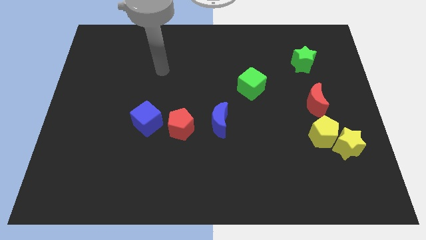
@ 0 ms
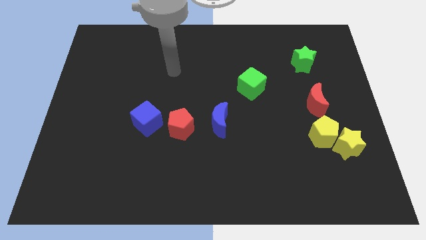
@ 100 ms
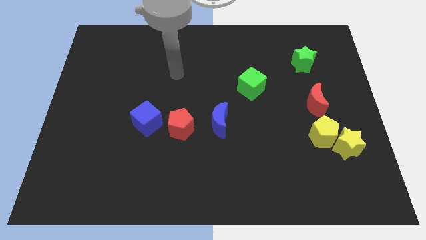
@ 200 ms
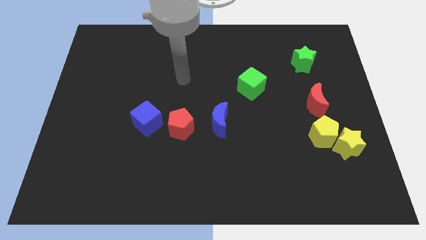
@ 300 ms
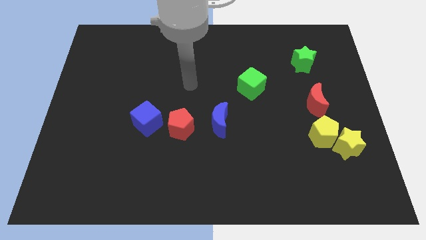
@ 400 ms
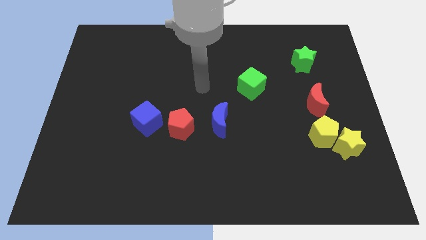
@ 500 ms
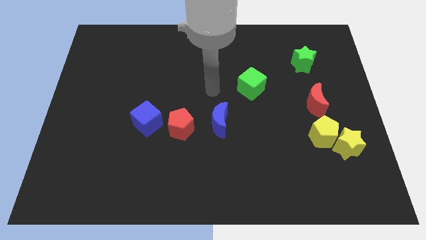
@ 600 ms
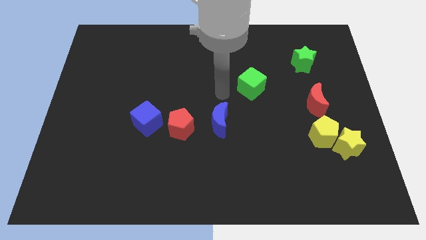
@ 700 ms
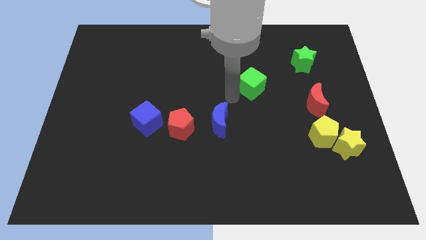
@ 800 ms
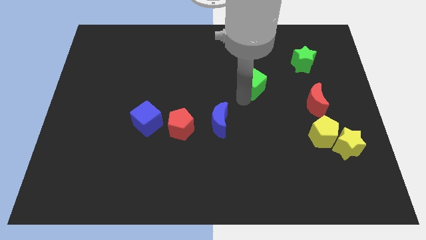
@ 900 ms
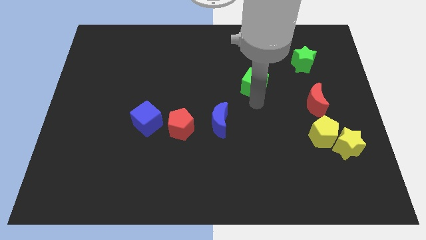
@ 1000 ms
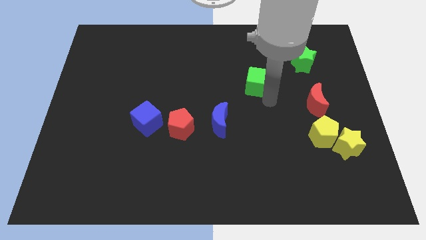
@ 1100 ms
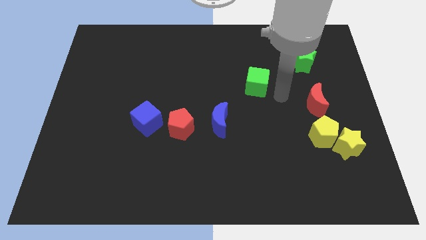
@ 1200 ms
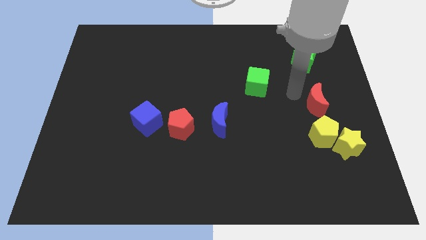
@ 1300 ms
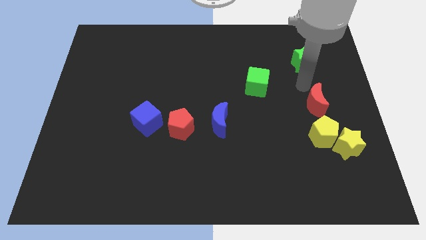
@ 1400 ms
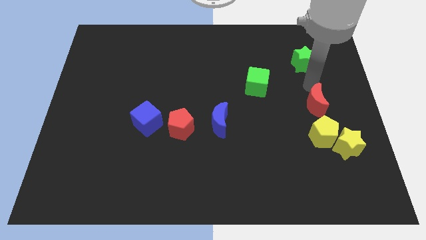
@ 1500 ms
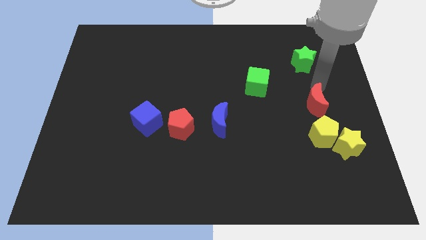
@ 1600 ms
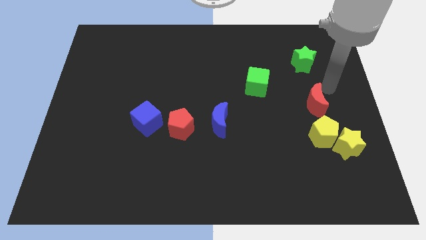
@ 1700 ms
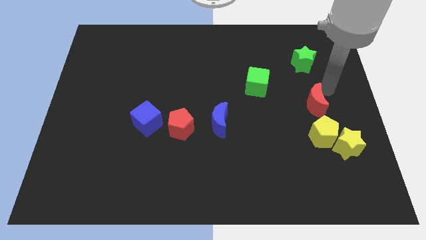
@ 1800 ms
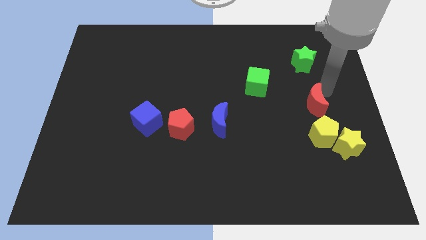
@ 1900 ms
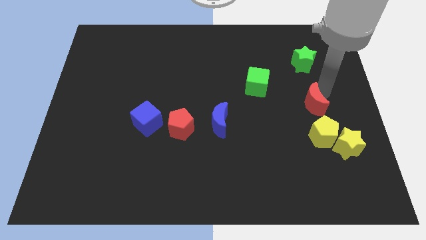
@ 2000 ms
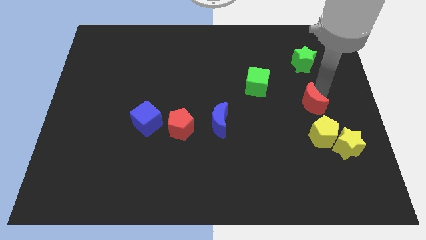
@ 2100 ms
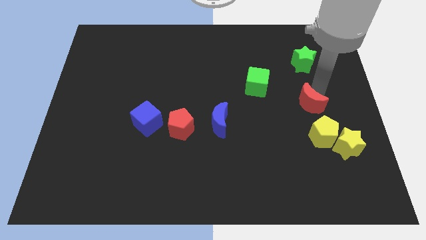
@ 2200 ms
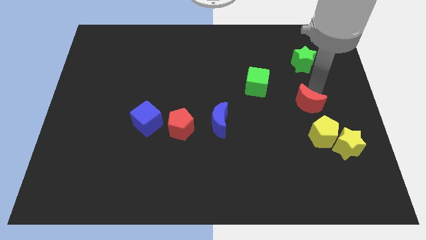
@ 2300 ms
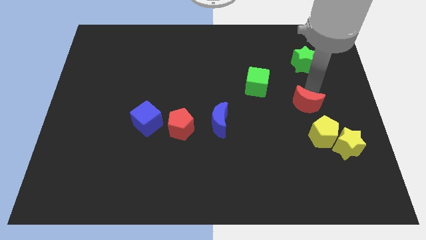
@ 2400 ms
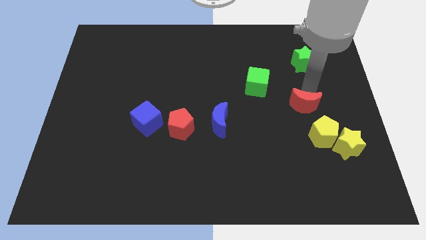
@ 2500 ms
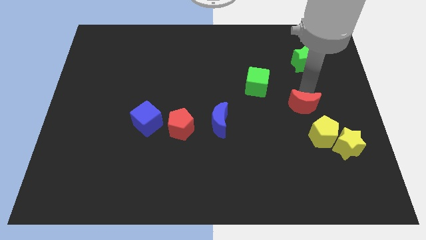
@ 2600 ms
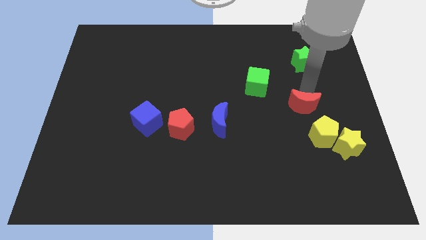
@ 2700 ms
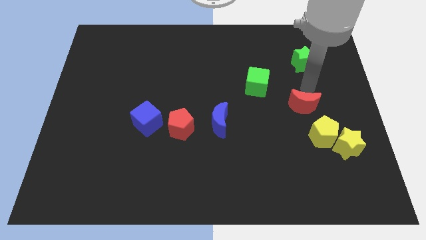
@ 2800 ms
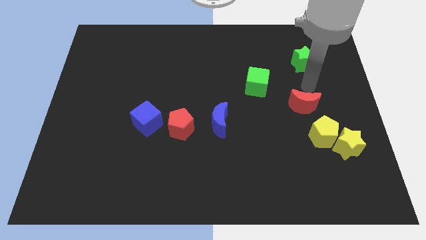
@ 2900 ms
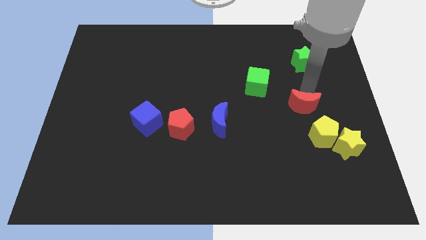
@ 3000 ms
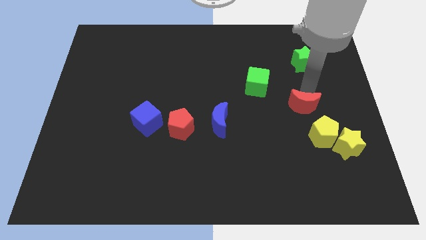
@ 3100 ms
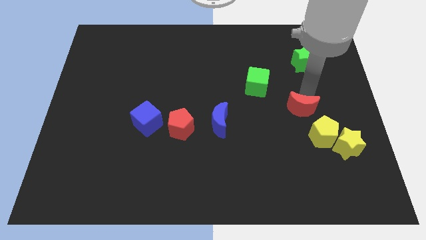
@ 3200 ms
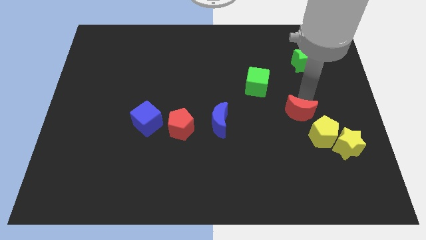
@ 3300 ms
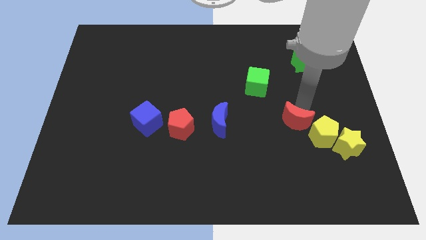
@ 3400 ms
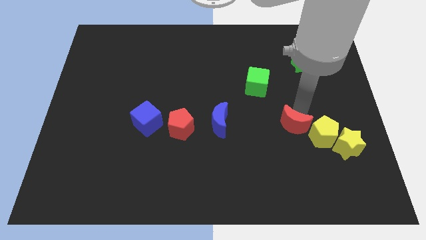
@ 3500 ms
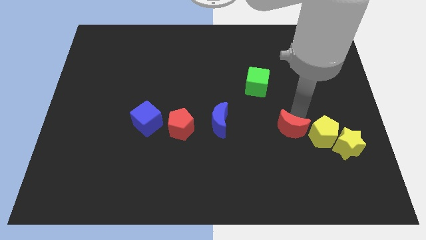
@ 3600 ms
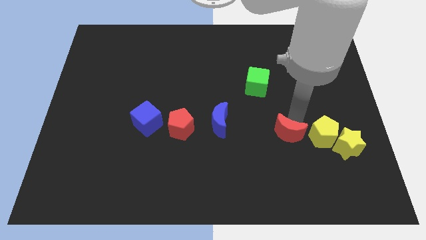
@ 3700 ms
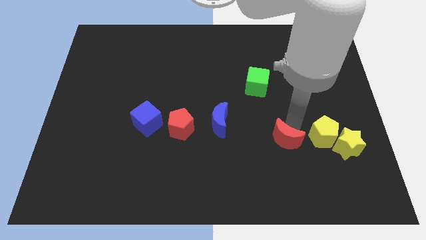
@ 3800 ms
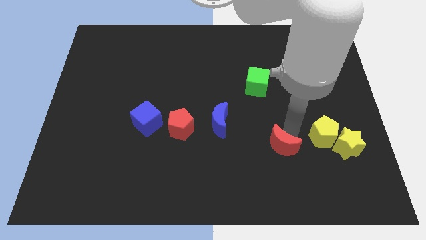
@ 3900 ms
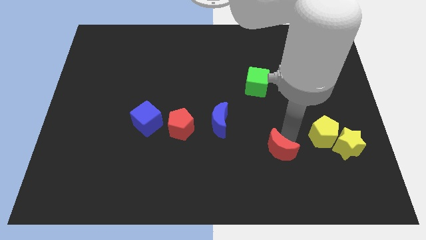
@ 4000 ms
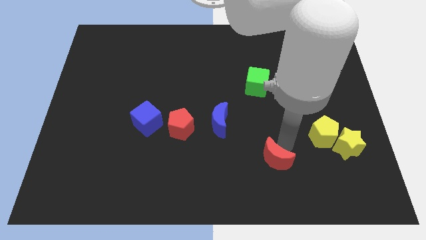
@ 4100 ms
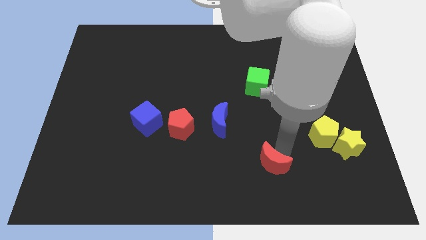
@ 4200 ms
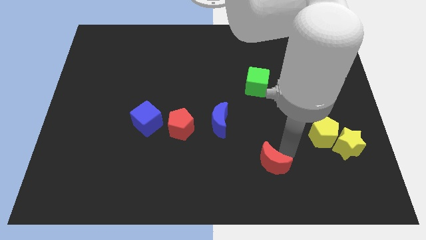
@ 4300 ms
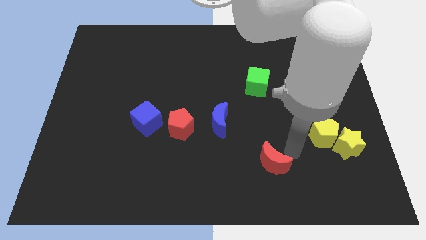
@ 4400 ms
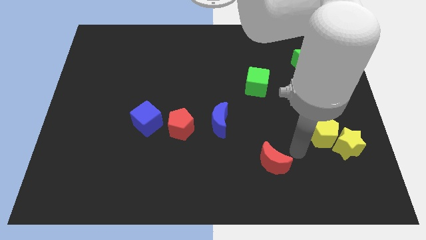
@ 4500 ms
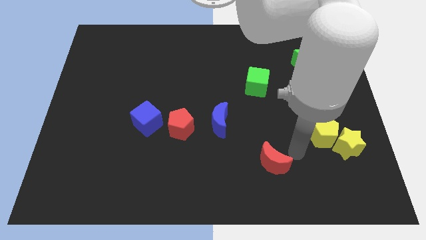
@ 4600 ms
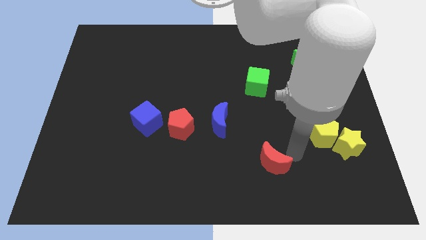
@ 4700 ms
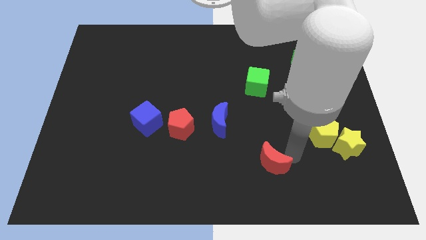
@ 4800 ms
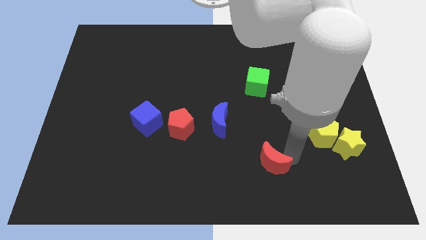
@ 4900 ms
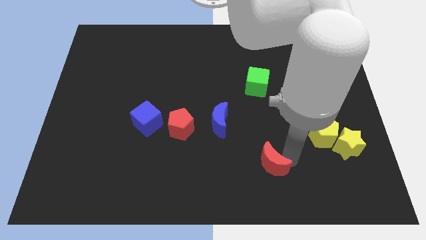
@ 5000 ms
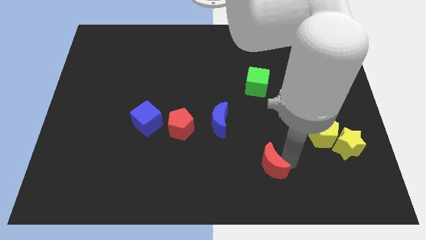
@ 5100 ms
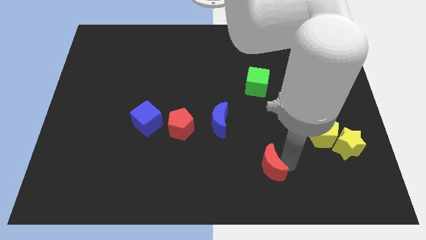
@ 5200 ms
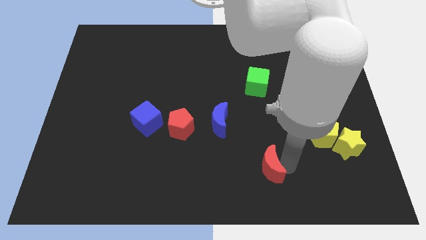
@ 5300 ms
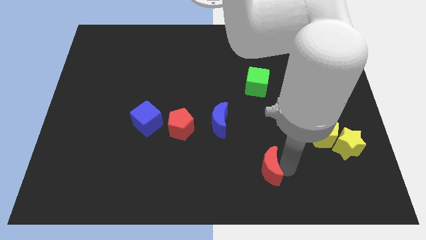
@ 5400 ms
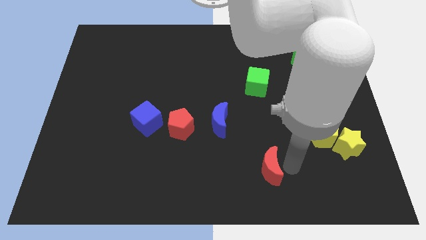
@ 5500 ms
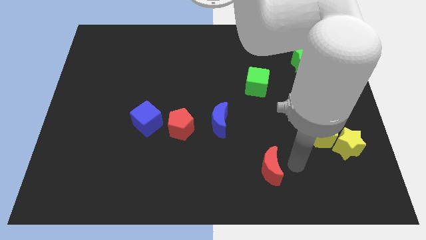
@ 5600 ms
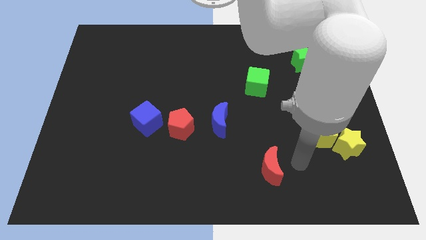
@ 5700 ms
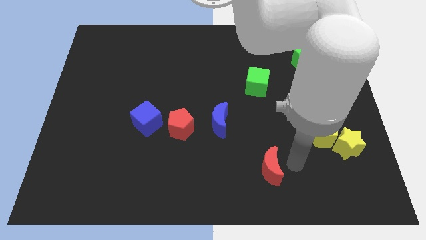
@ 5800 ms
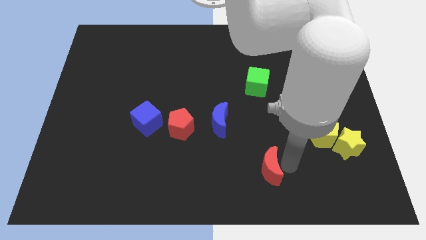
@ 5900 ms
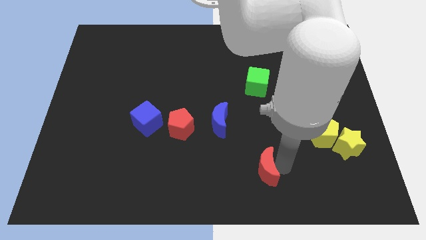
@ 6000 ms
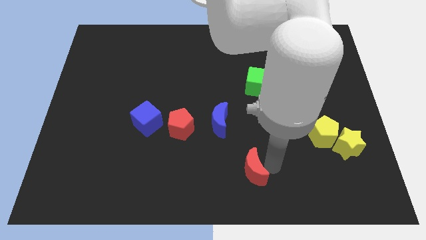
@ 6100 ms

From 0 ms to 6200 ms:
move the red moon to the bottom

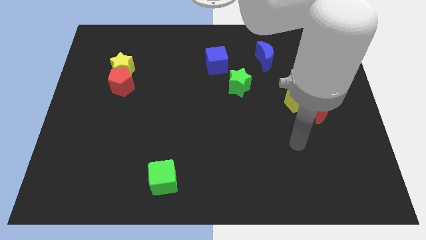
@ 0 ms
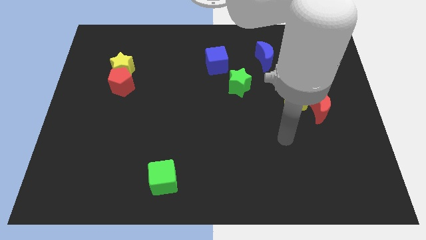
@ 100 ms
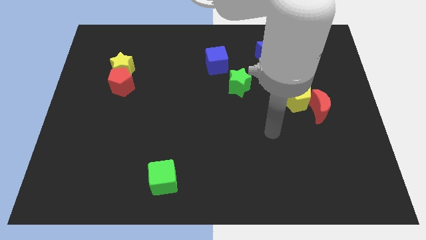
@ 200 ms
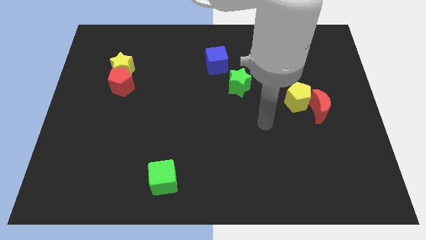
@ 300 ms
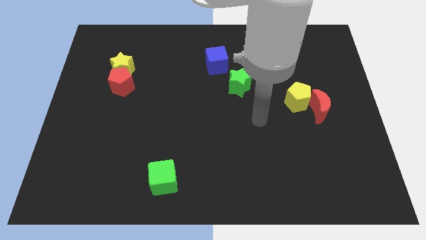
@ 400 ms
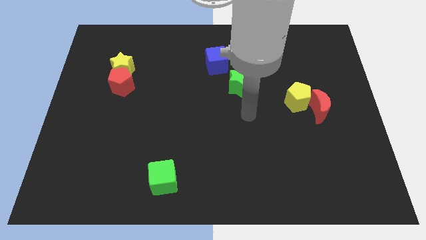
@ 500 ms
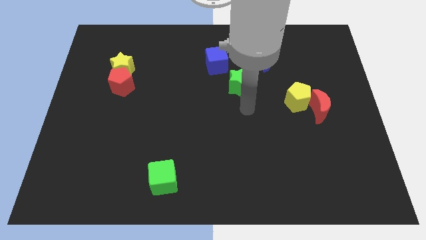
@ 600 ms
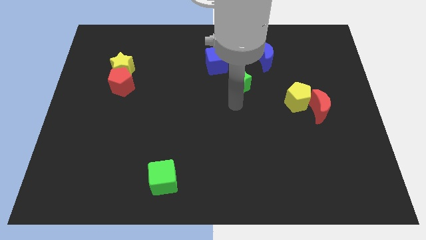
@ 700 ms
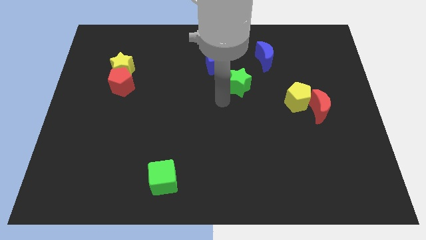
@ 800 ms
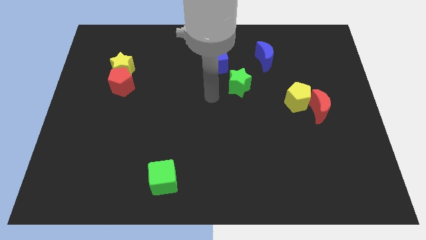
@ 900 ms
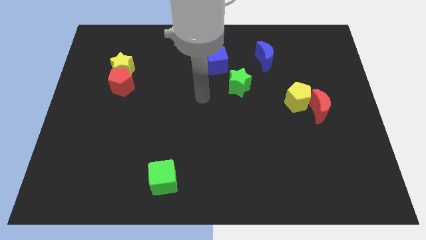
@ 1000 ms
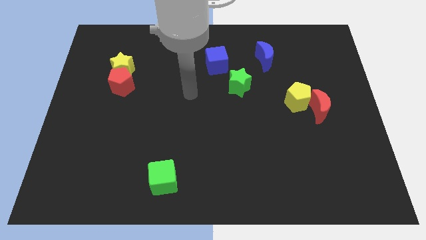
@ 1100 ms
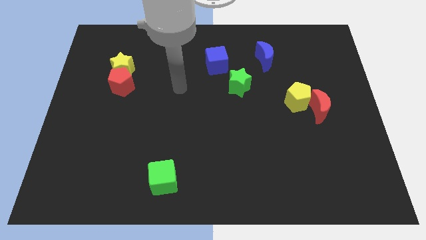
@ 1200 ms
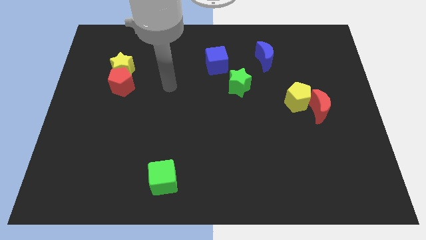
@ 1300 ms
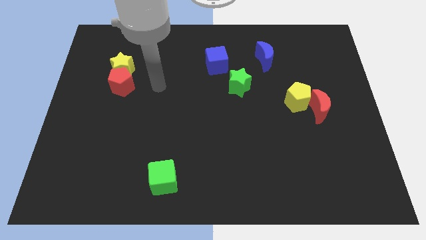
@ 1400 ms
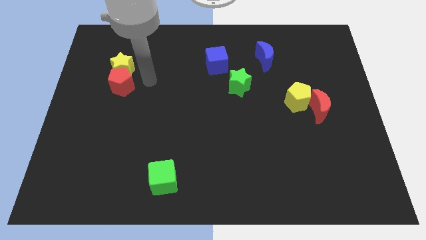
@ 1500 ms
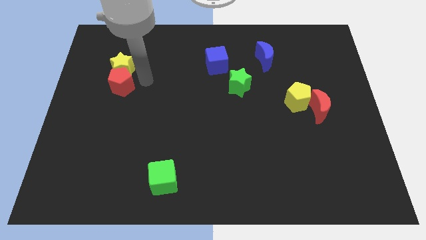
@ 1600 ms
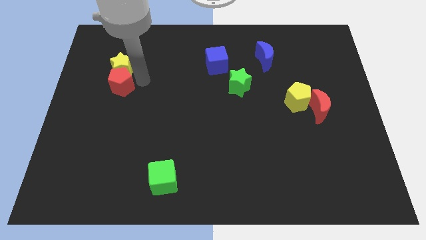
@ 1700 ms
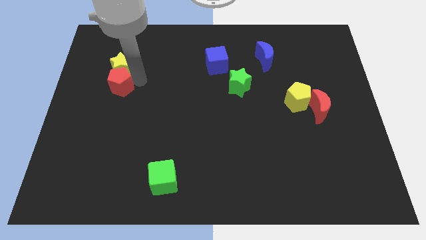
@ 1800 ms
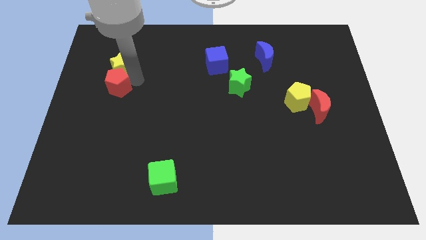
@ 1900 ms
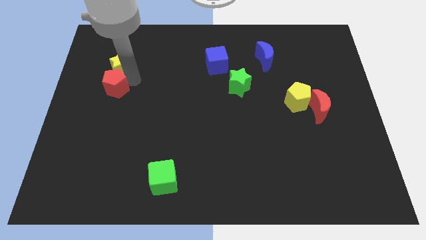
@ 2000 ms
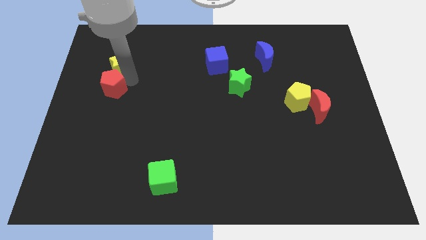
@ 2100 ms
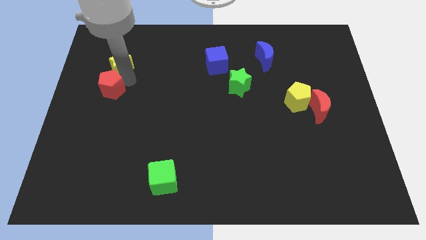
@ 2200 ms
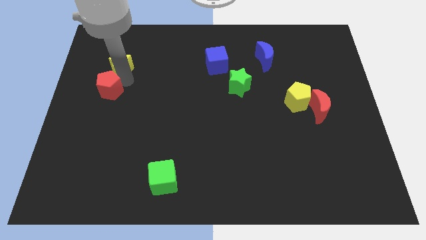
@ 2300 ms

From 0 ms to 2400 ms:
move the red pentagon to the left side of the board
